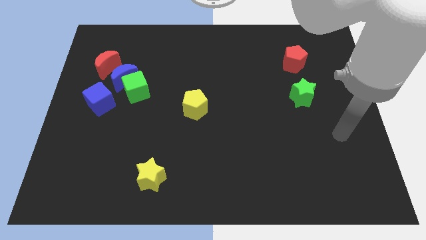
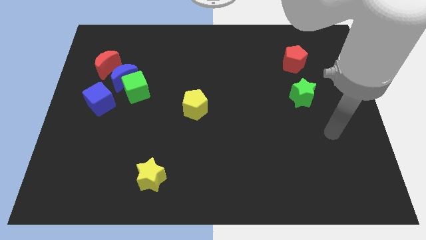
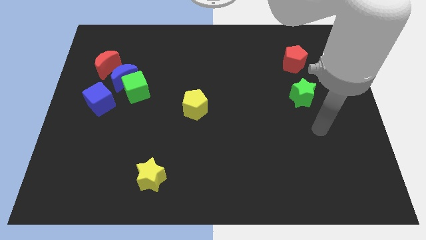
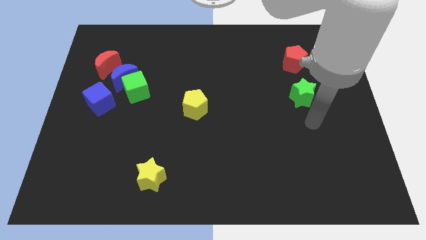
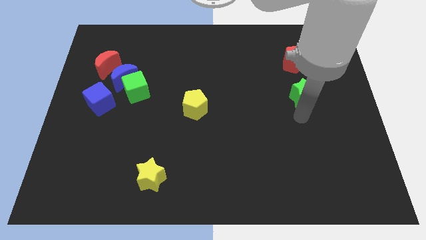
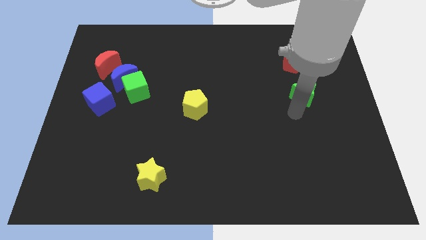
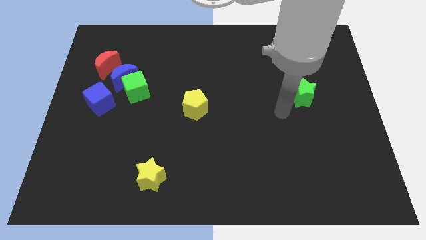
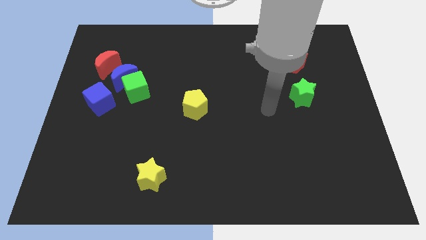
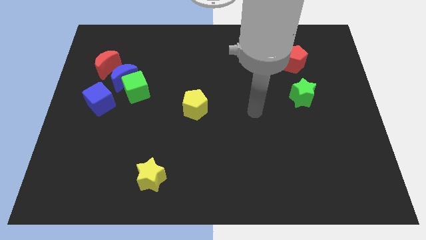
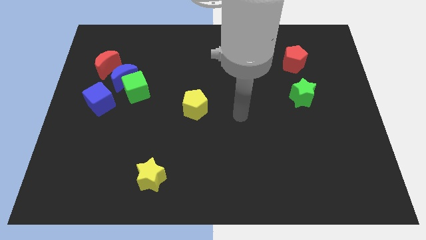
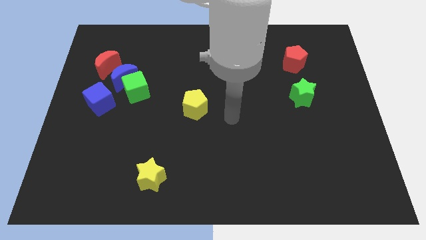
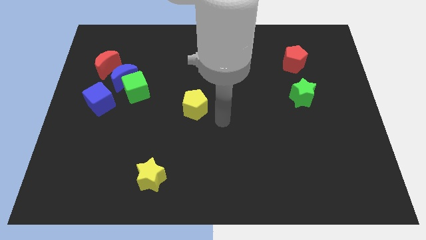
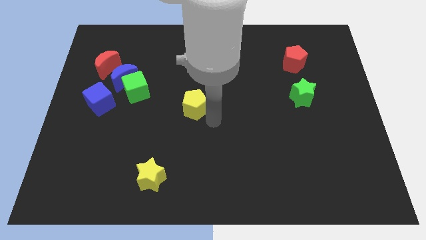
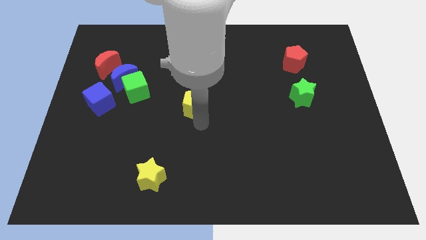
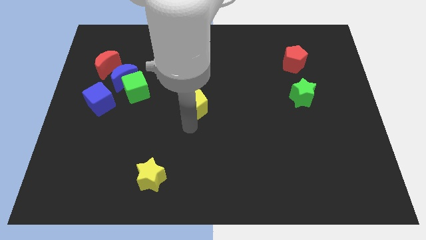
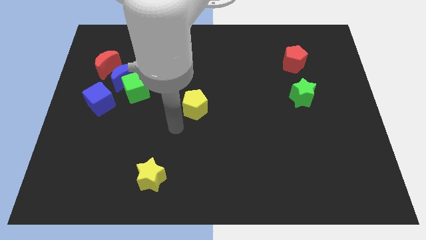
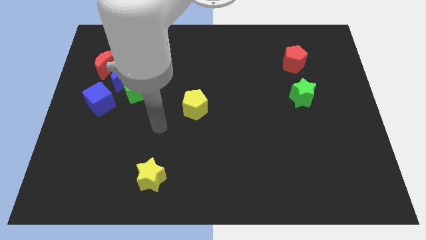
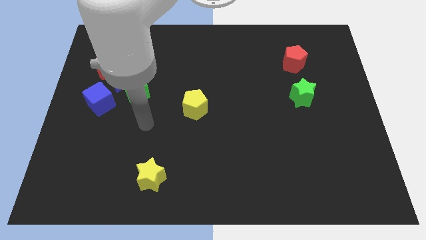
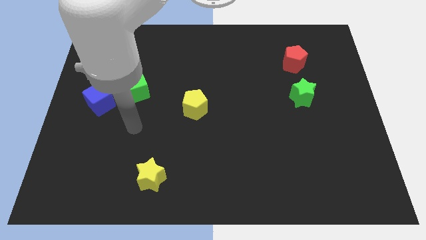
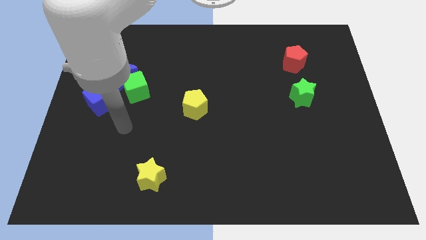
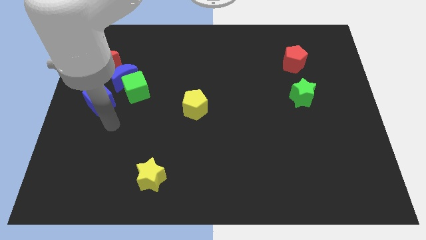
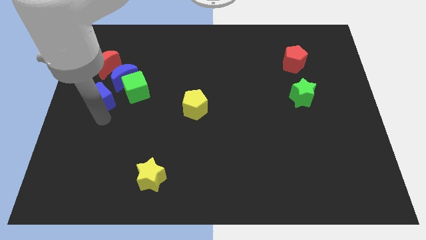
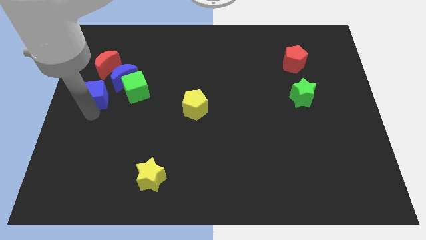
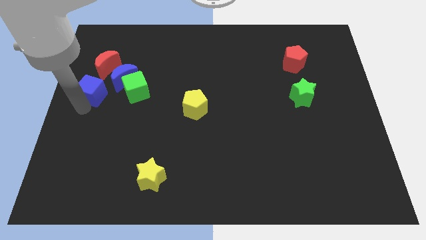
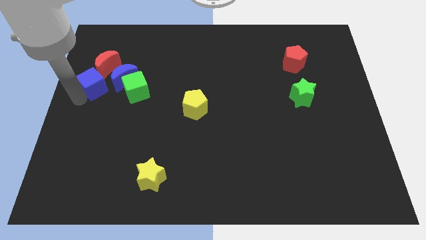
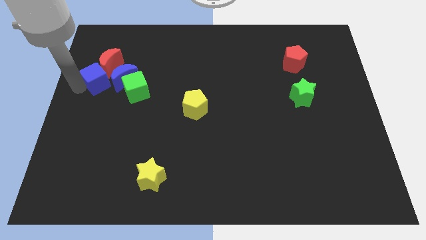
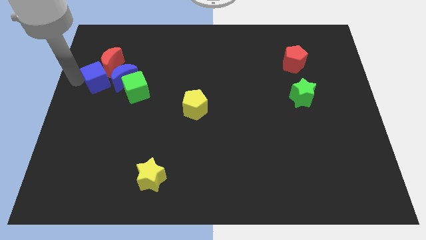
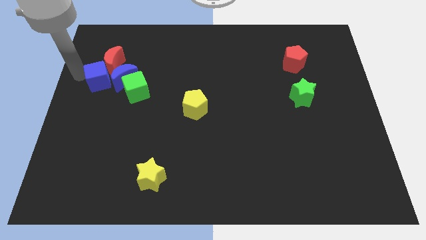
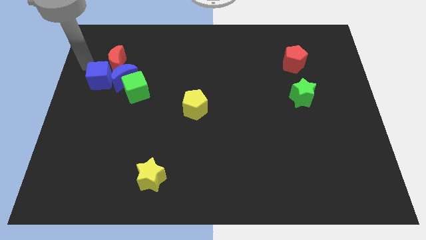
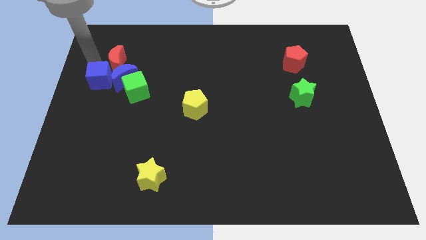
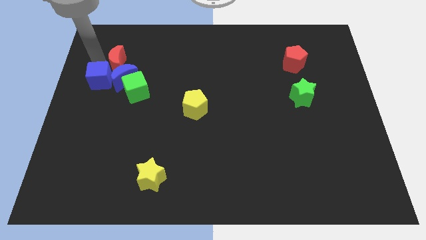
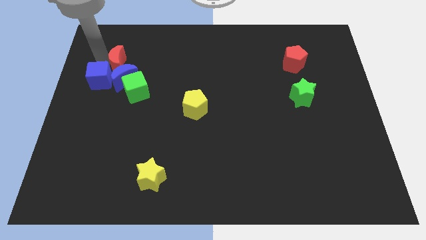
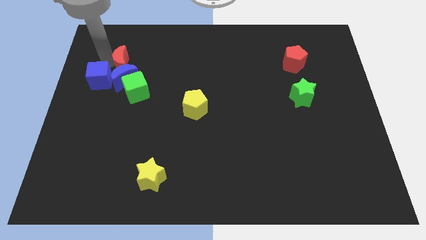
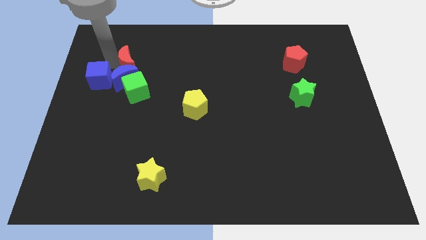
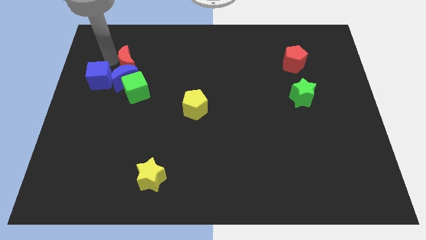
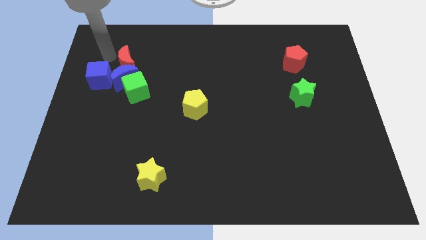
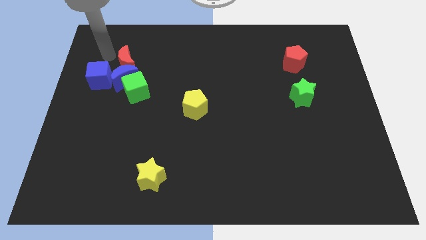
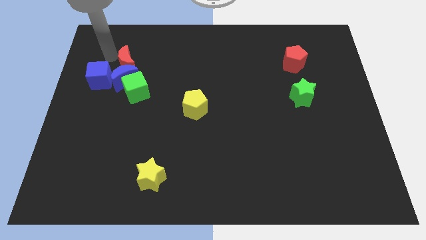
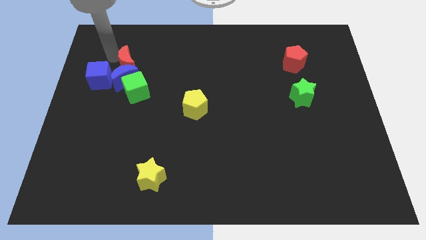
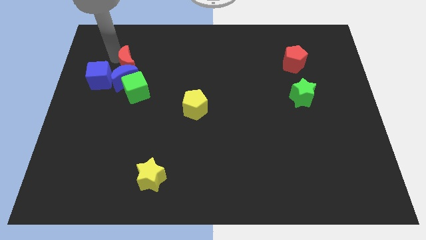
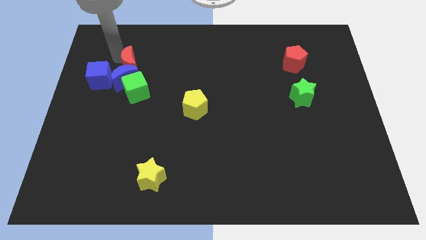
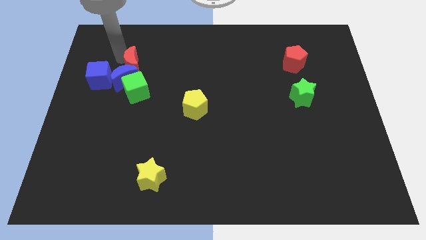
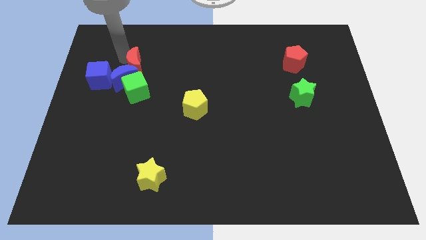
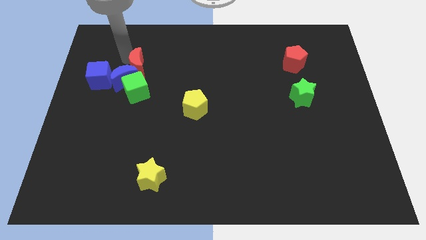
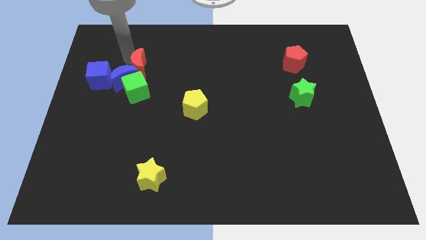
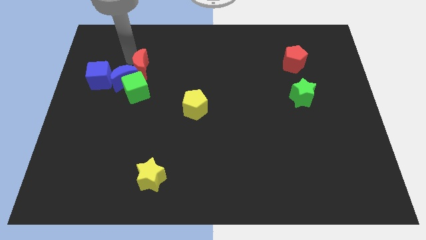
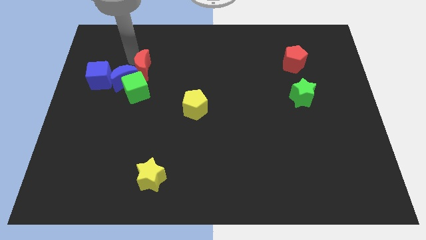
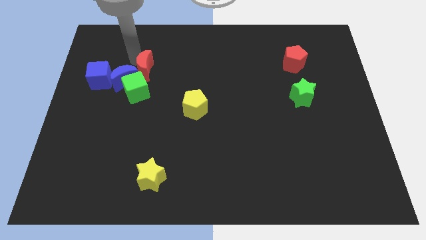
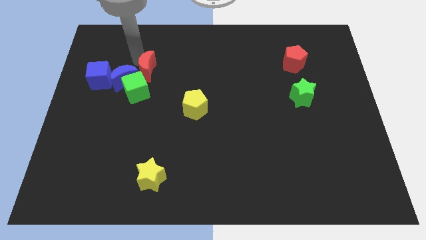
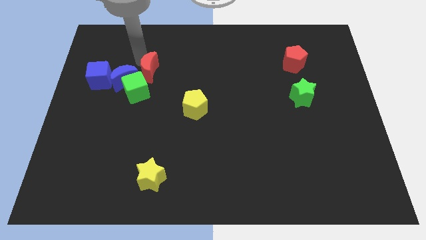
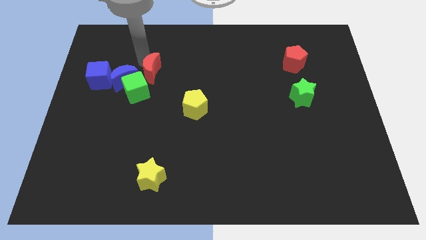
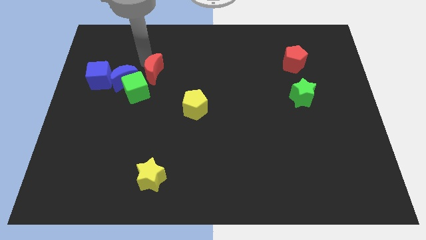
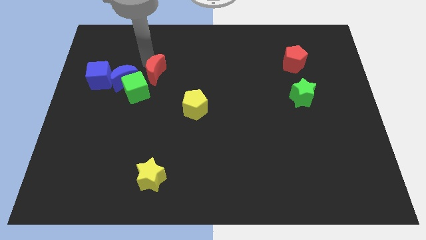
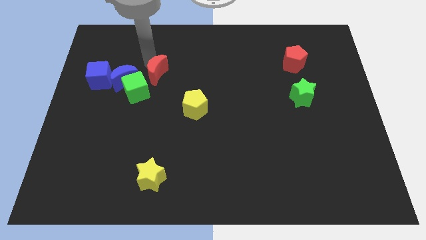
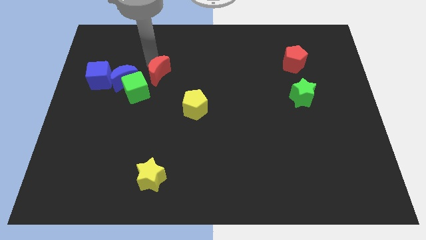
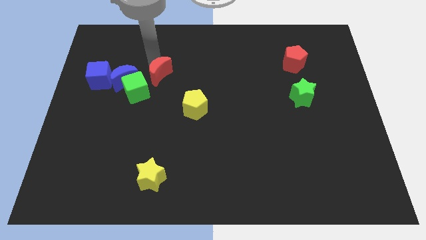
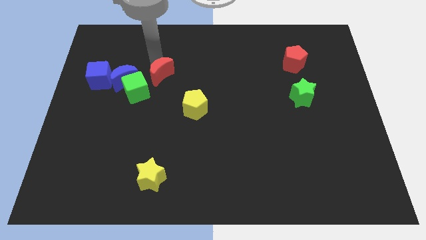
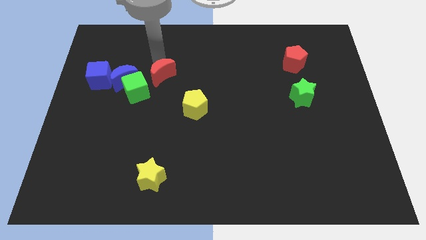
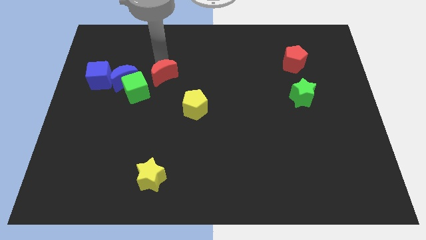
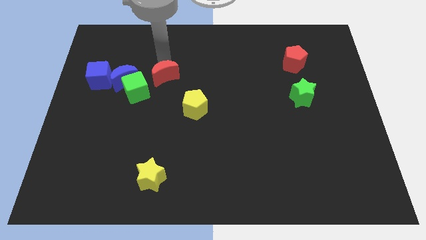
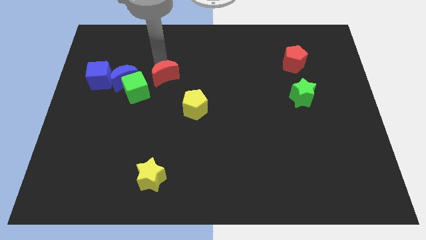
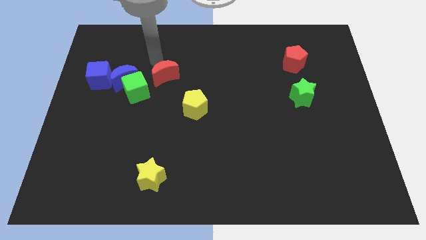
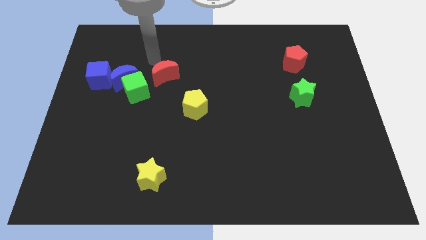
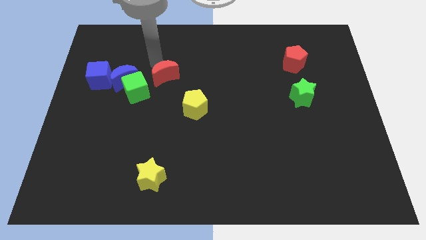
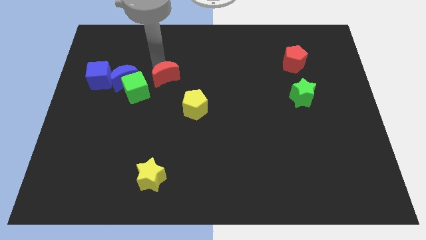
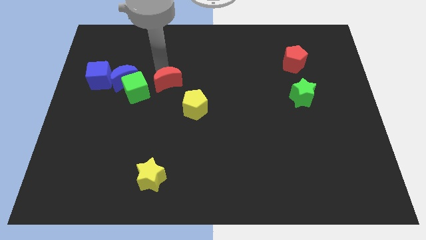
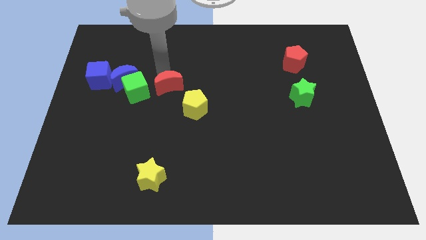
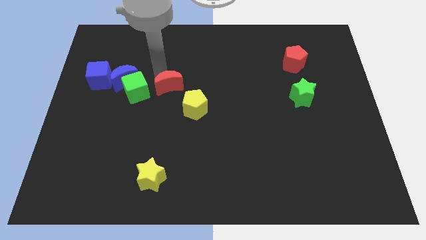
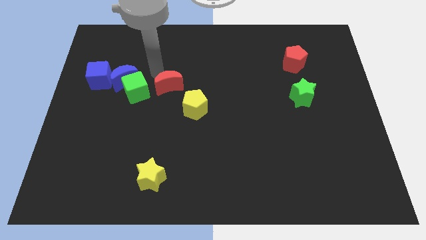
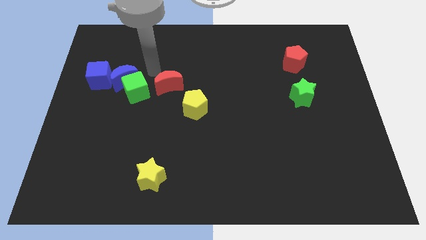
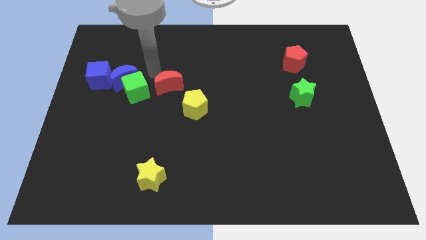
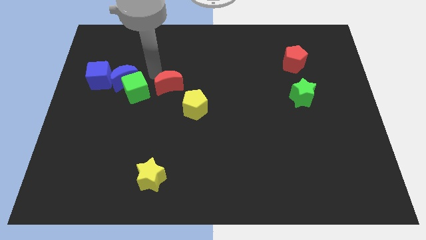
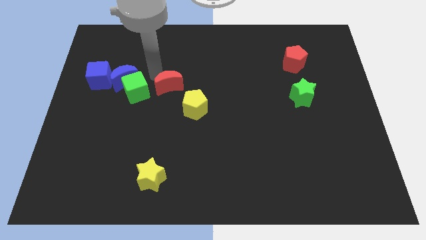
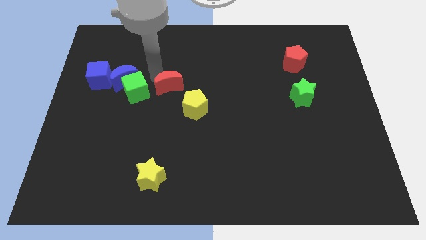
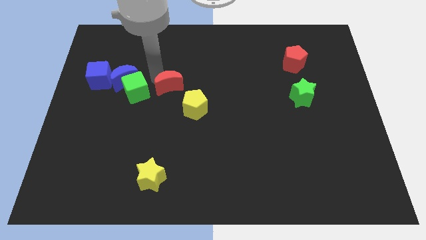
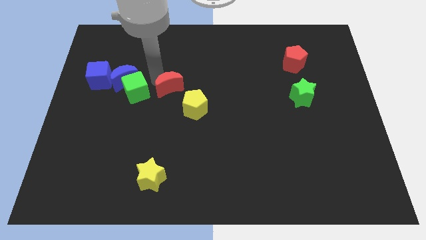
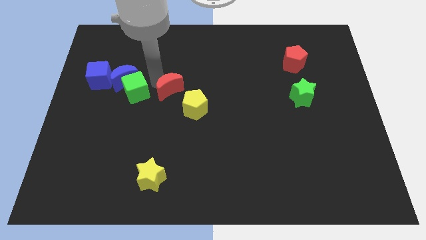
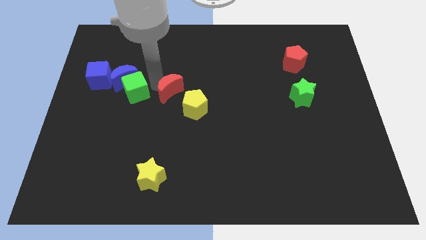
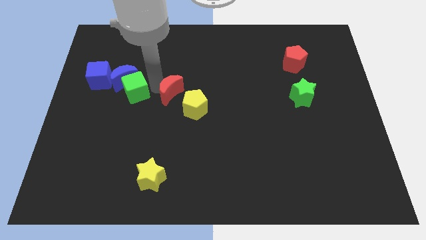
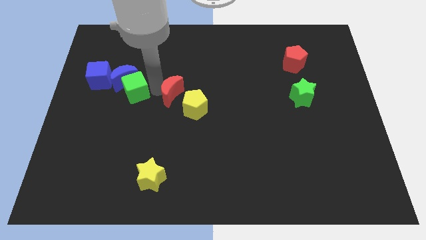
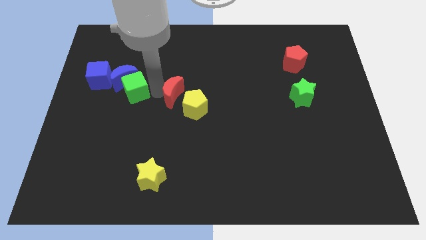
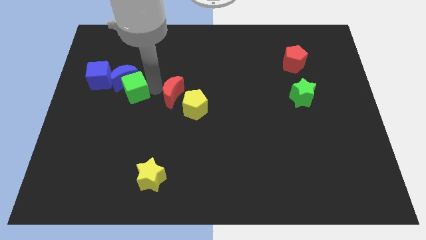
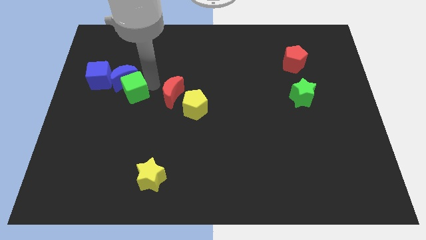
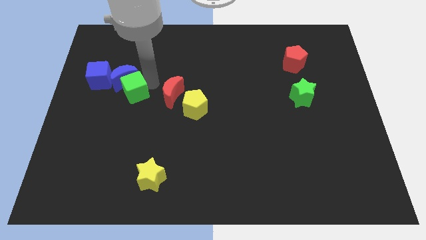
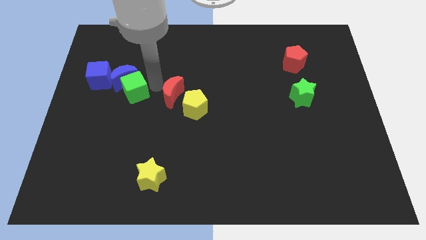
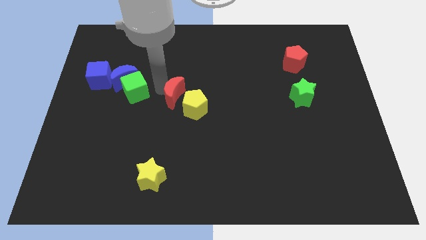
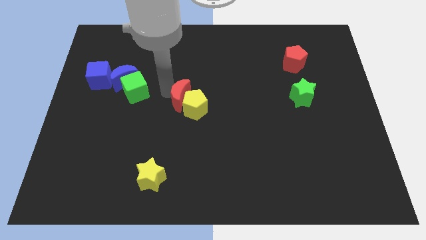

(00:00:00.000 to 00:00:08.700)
put the red moon to the yellow pentagon
